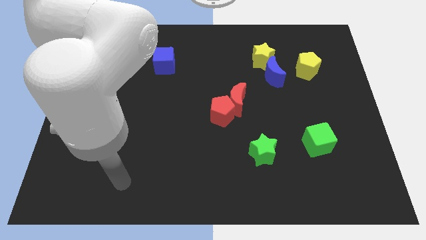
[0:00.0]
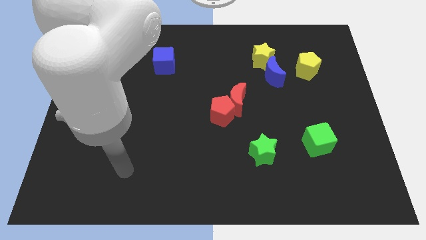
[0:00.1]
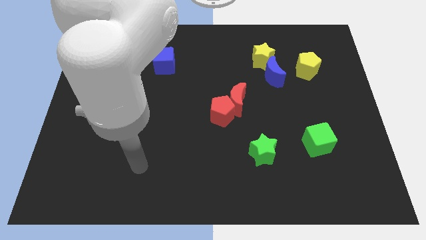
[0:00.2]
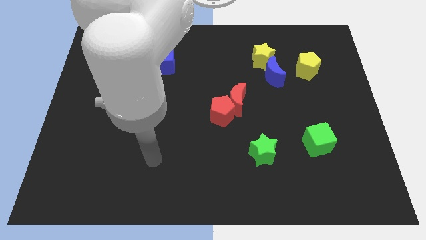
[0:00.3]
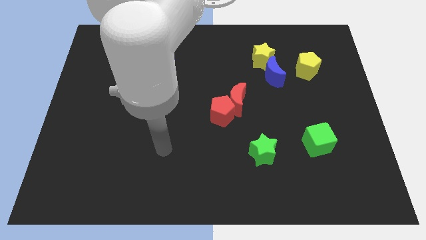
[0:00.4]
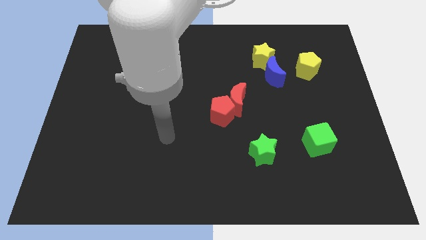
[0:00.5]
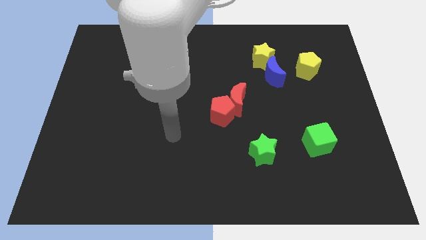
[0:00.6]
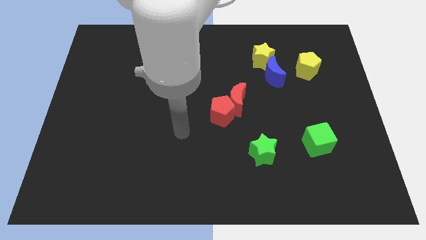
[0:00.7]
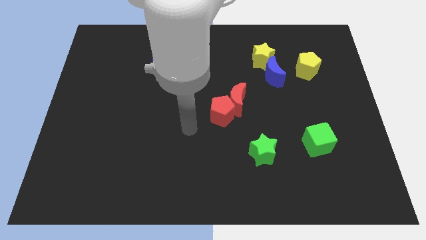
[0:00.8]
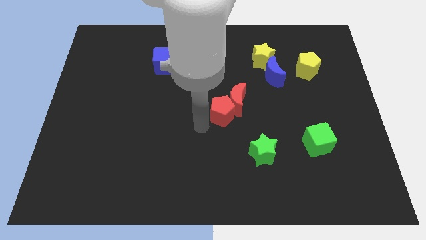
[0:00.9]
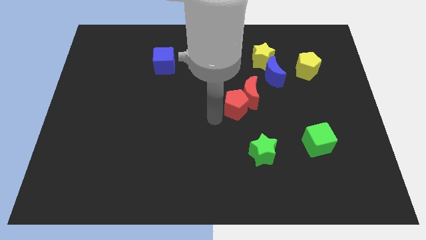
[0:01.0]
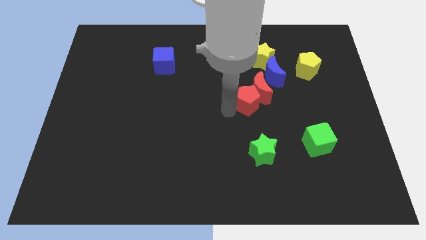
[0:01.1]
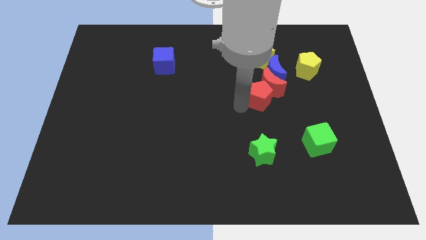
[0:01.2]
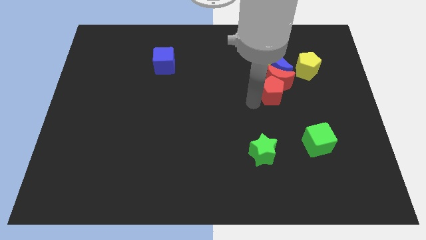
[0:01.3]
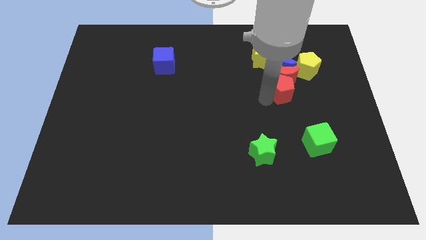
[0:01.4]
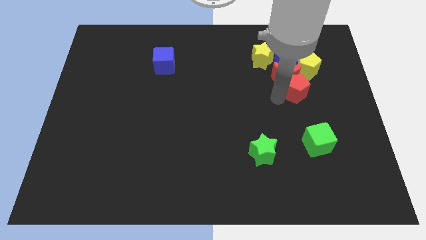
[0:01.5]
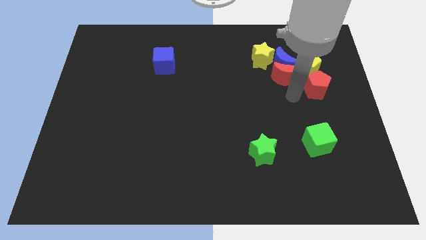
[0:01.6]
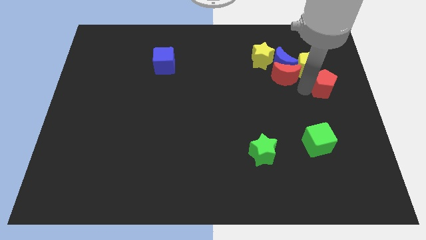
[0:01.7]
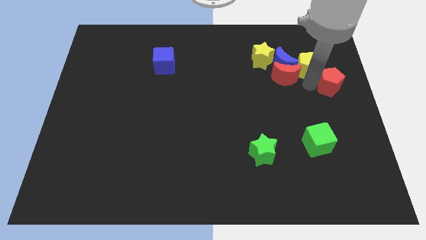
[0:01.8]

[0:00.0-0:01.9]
move the red moon away from the red pentagon

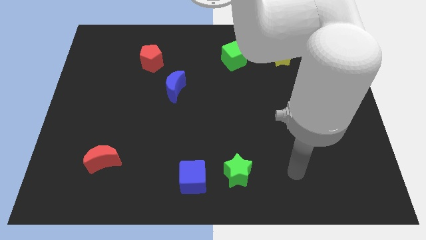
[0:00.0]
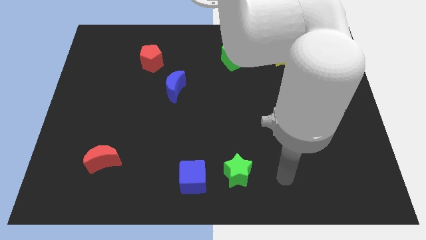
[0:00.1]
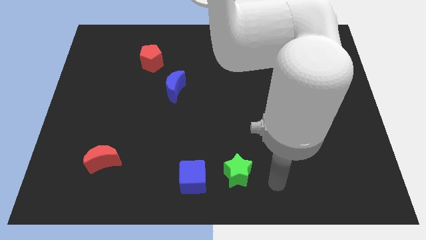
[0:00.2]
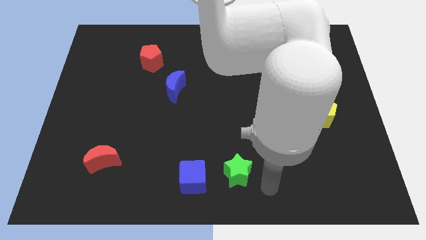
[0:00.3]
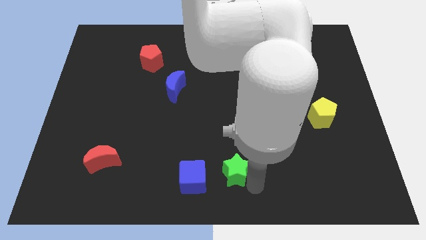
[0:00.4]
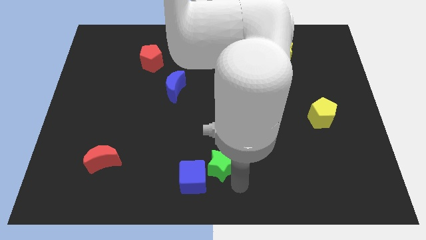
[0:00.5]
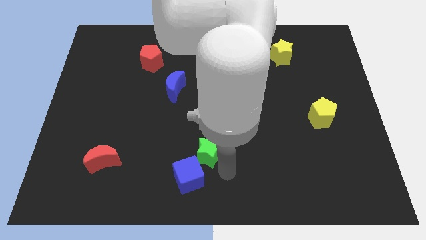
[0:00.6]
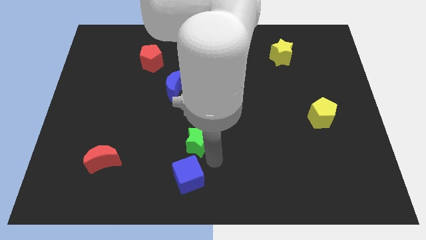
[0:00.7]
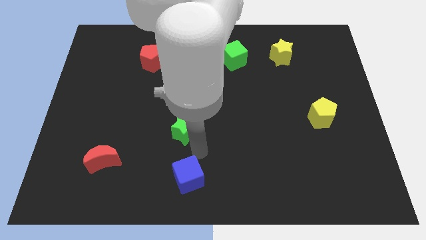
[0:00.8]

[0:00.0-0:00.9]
move the blue cube away from the green star

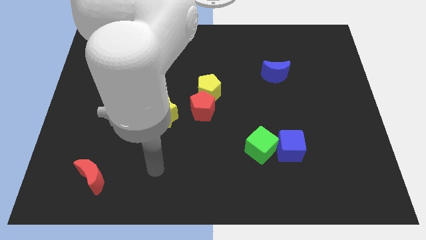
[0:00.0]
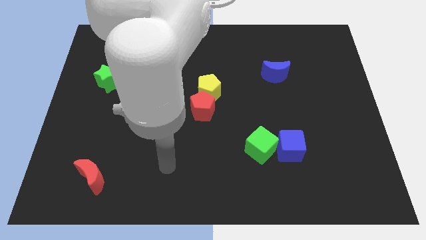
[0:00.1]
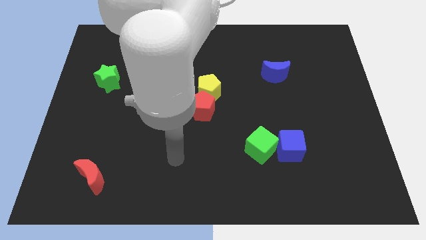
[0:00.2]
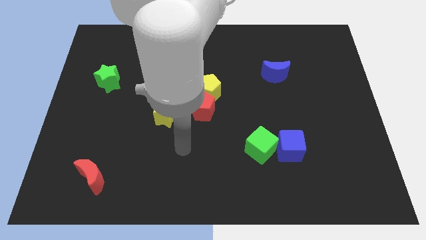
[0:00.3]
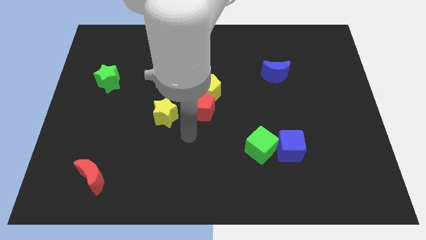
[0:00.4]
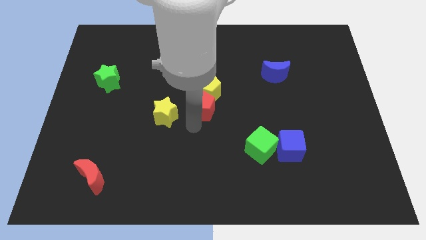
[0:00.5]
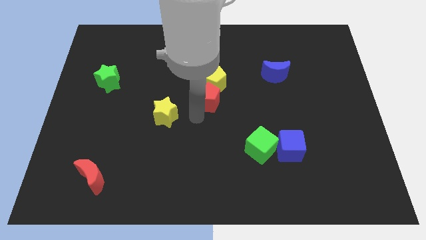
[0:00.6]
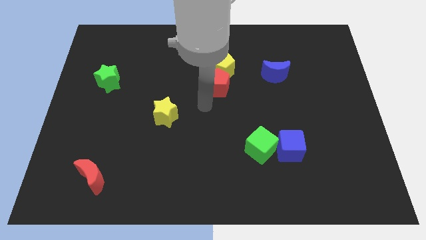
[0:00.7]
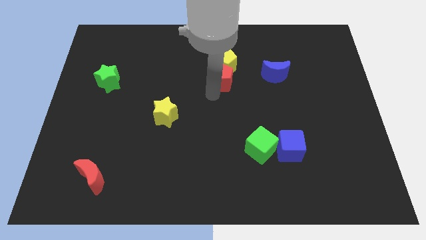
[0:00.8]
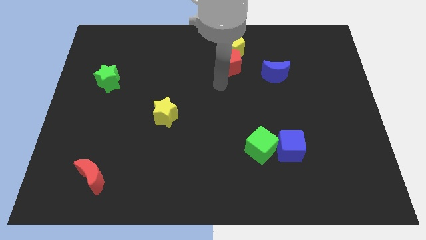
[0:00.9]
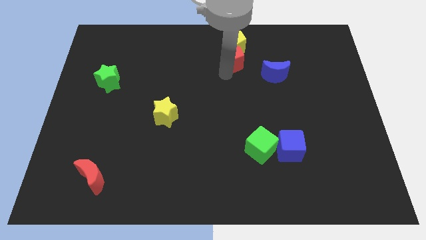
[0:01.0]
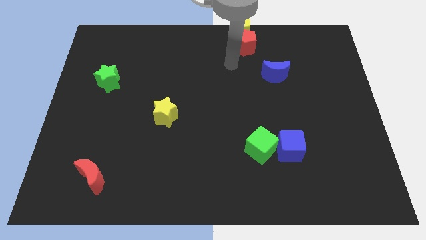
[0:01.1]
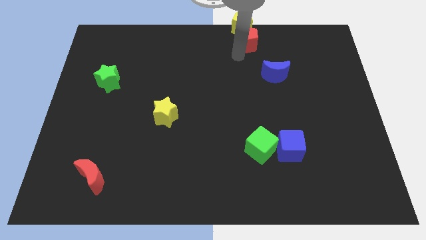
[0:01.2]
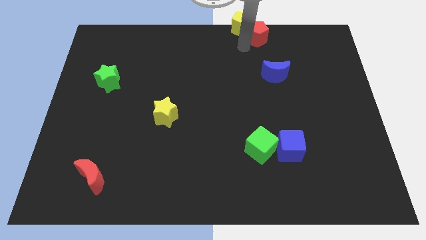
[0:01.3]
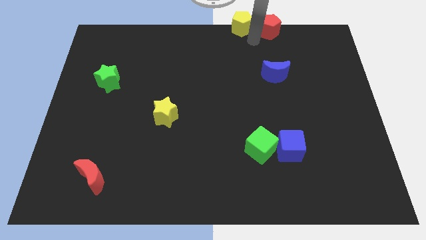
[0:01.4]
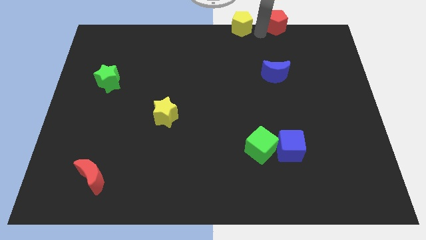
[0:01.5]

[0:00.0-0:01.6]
pull the yellow pentagon apart from the red pentagon

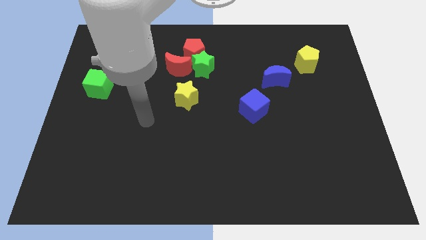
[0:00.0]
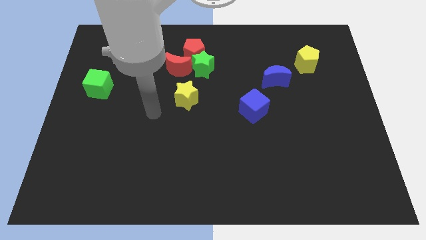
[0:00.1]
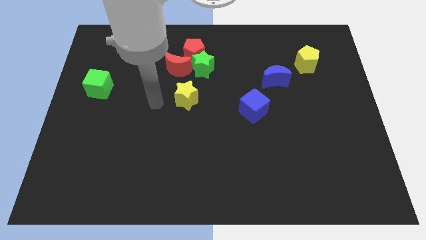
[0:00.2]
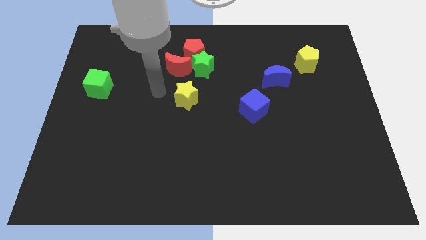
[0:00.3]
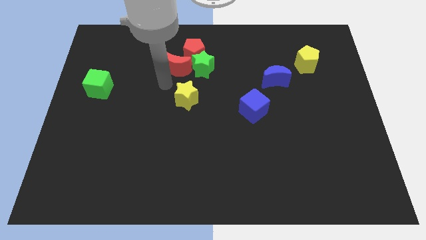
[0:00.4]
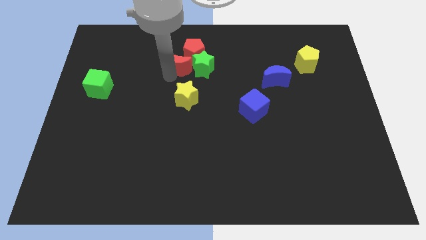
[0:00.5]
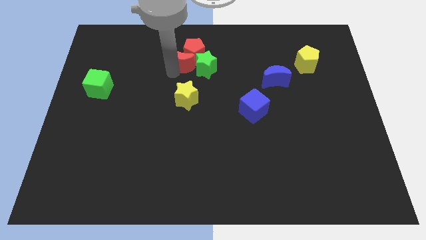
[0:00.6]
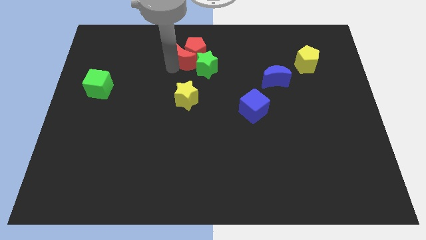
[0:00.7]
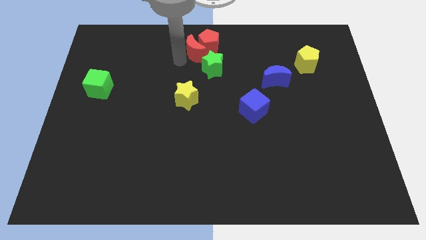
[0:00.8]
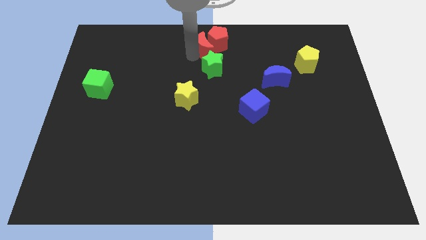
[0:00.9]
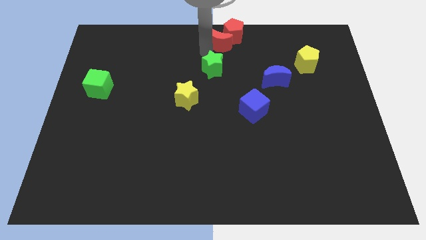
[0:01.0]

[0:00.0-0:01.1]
pull the green star apart from the red pentagon and red moon

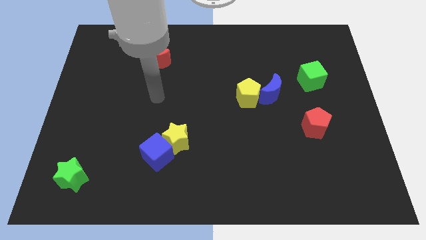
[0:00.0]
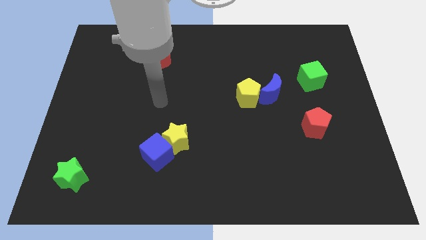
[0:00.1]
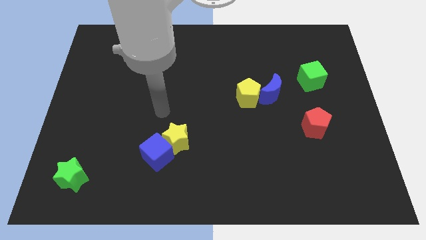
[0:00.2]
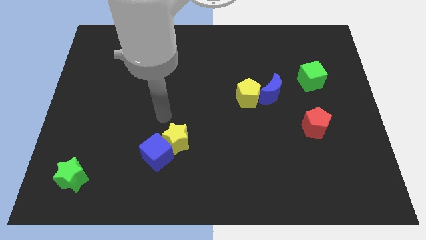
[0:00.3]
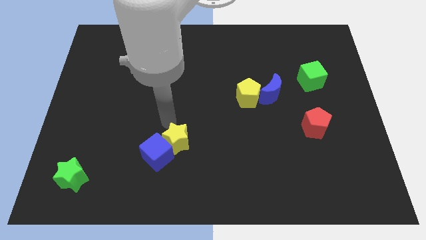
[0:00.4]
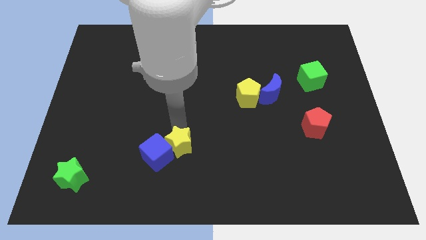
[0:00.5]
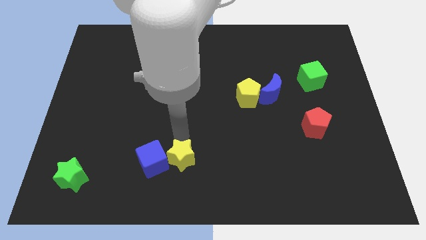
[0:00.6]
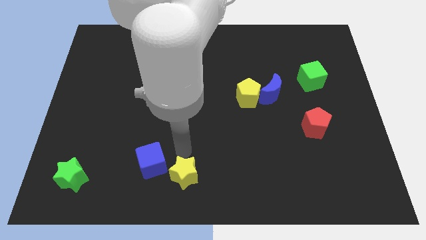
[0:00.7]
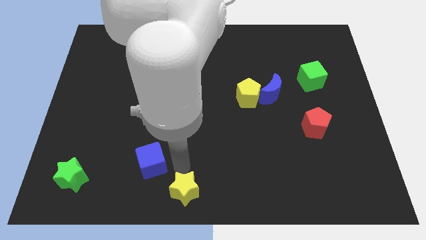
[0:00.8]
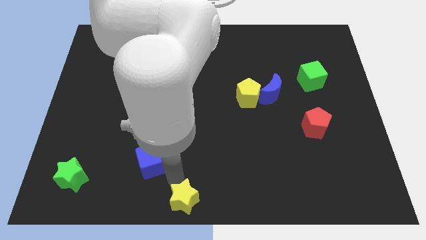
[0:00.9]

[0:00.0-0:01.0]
move the blue cube away from the yellow star

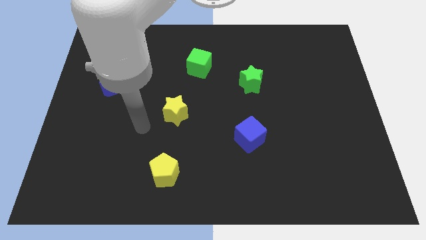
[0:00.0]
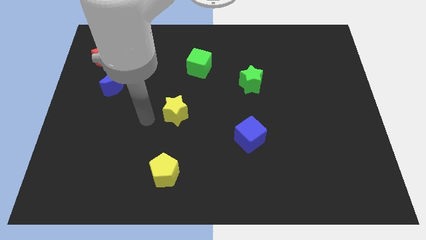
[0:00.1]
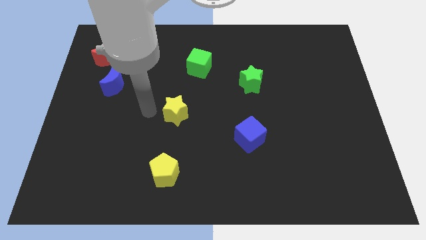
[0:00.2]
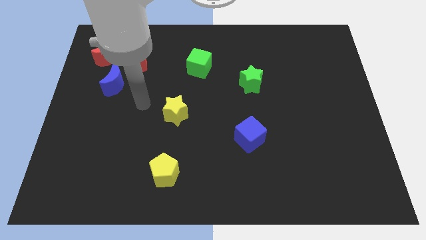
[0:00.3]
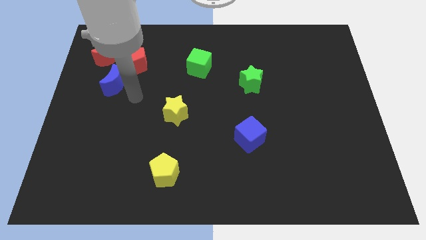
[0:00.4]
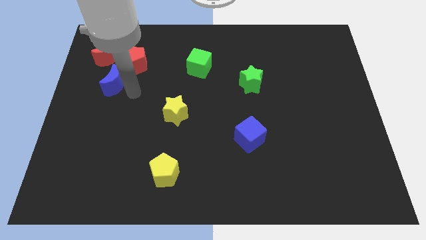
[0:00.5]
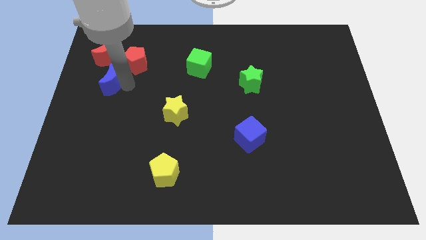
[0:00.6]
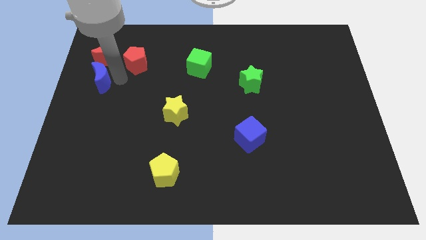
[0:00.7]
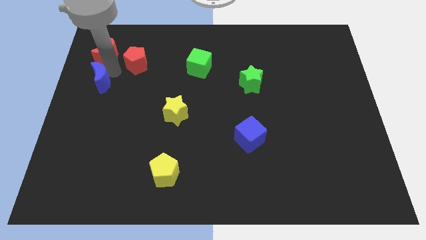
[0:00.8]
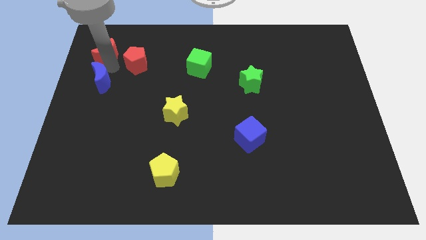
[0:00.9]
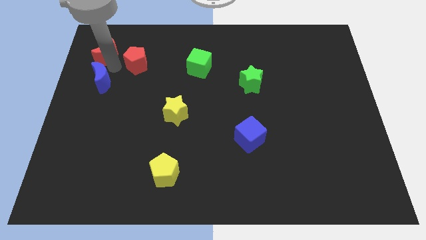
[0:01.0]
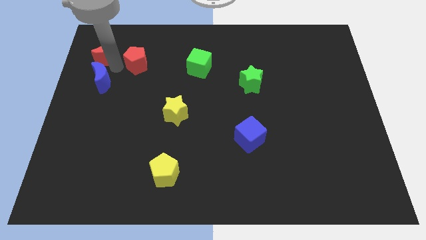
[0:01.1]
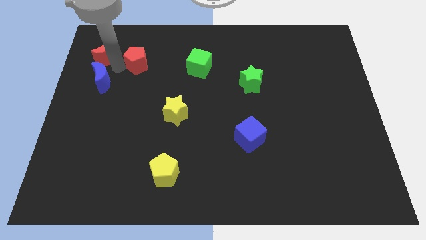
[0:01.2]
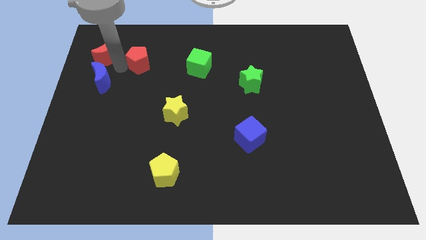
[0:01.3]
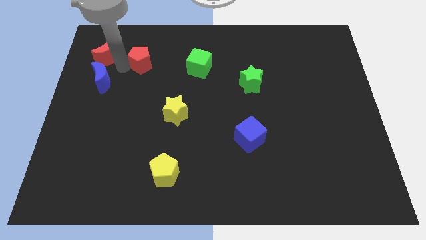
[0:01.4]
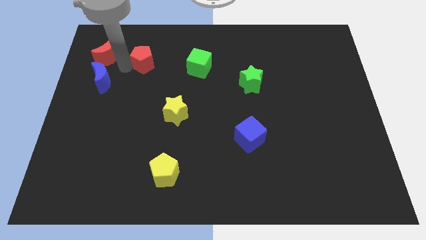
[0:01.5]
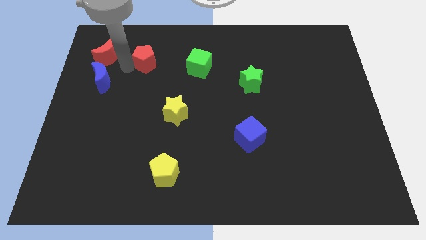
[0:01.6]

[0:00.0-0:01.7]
separate the red pentagon from the red moon and blue moon

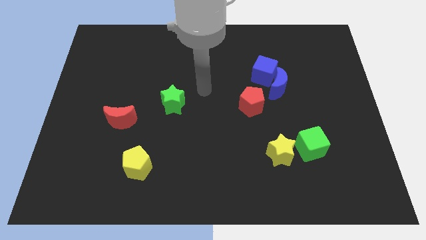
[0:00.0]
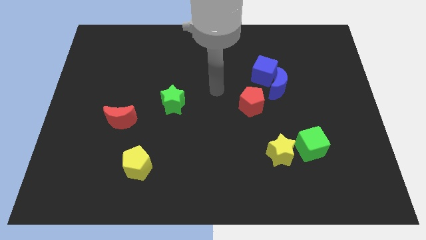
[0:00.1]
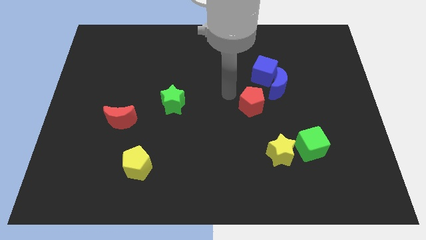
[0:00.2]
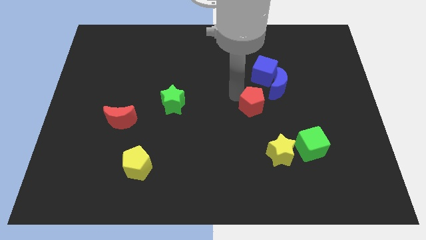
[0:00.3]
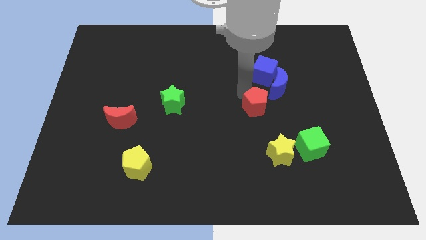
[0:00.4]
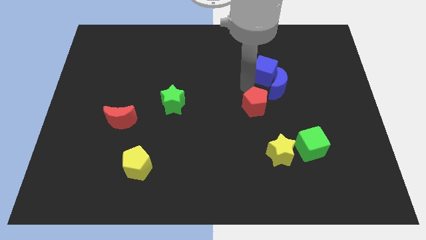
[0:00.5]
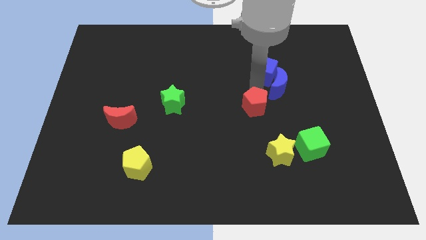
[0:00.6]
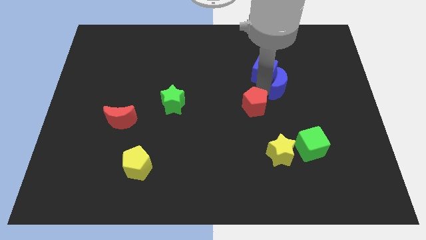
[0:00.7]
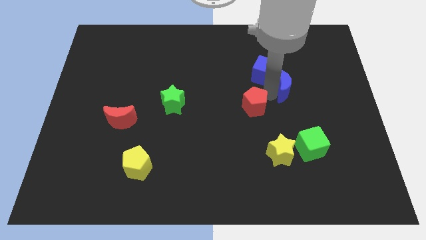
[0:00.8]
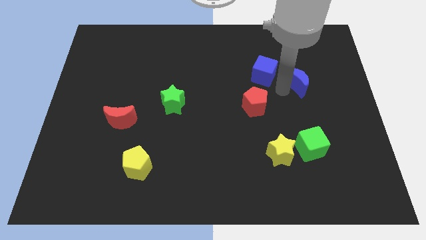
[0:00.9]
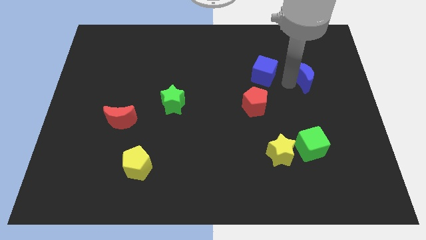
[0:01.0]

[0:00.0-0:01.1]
move the blue cube away from the blue moon

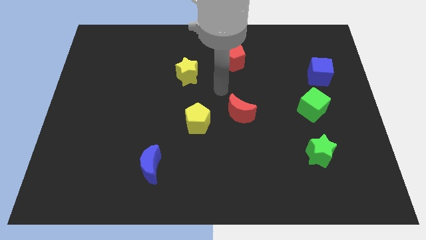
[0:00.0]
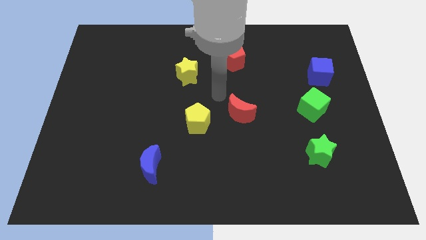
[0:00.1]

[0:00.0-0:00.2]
separate the red moon from the yellow pentagon

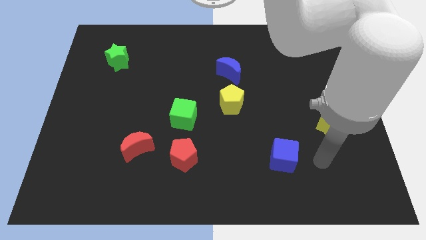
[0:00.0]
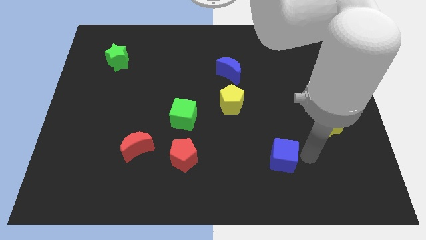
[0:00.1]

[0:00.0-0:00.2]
pull the blue moon apart from the yellow pentagon
